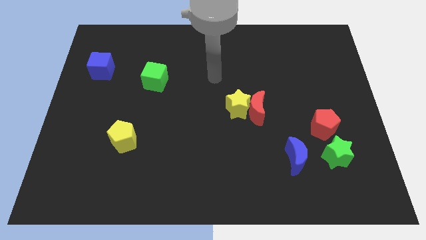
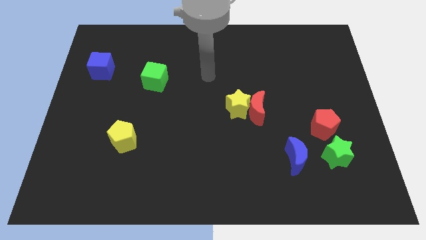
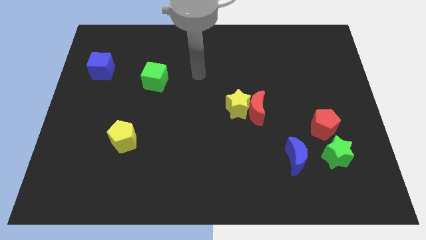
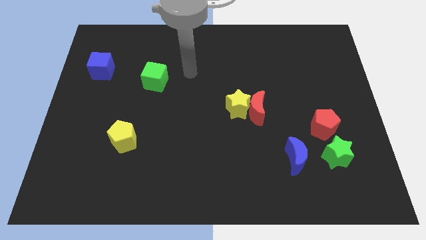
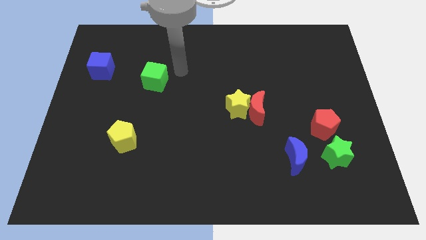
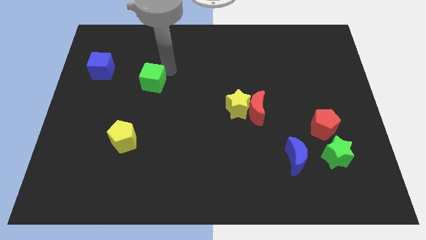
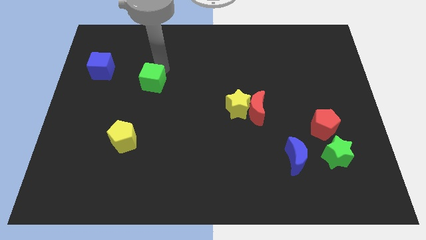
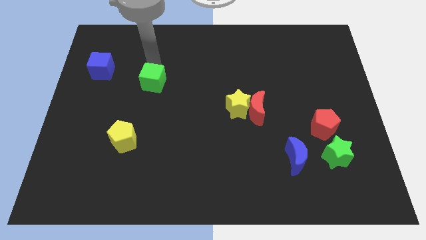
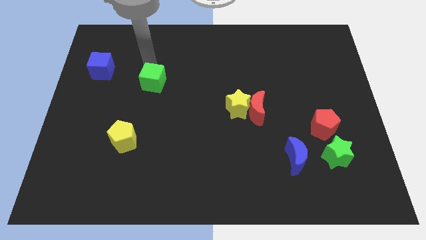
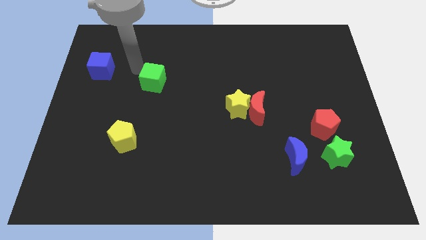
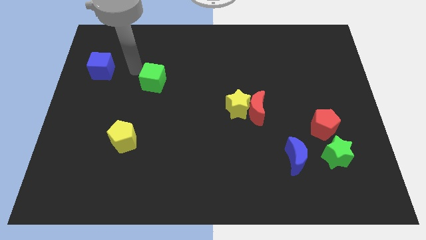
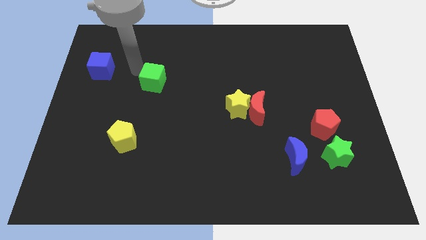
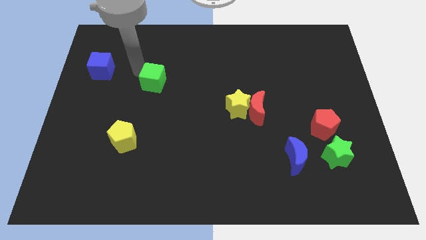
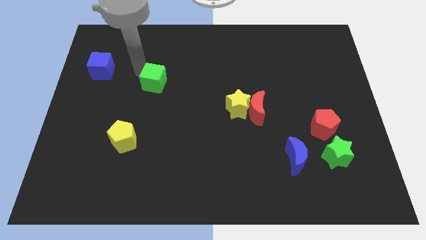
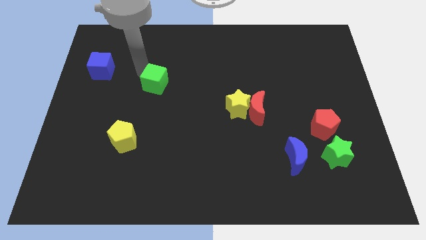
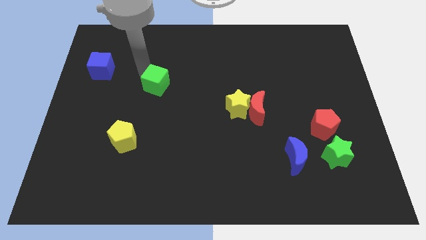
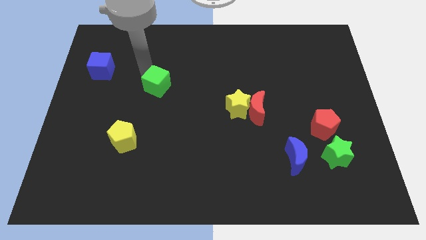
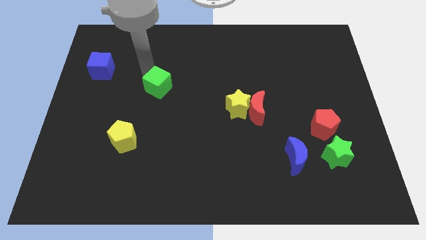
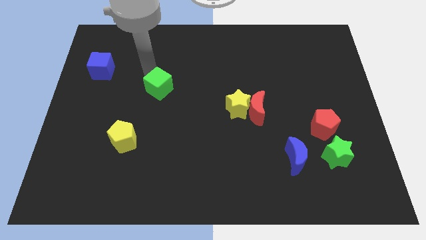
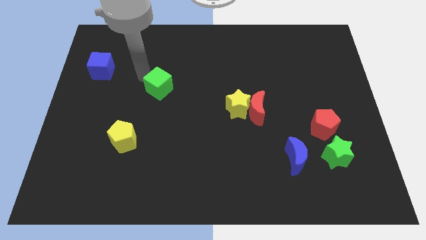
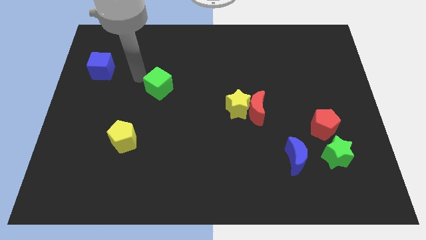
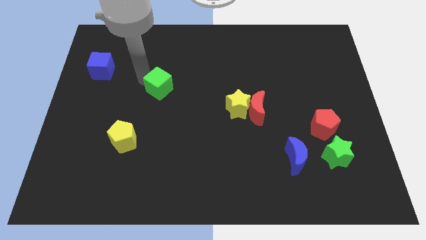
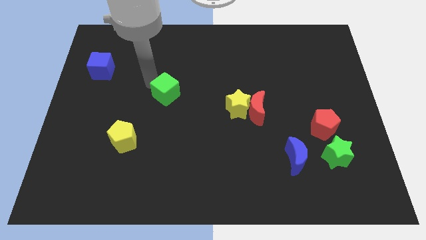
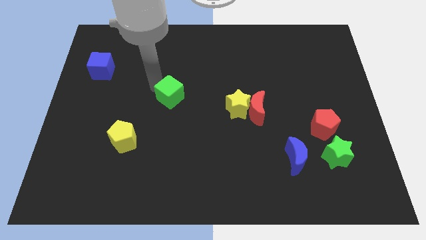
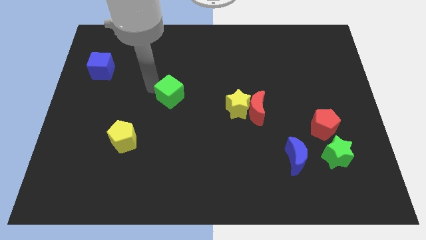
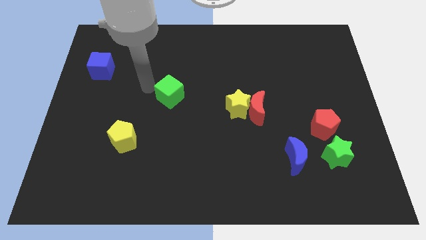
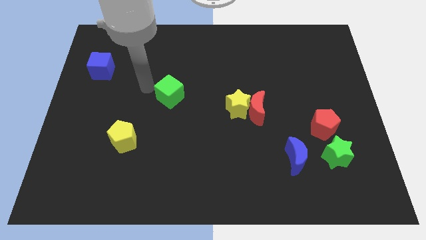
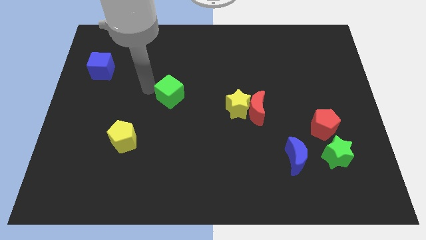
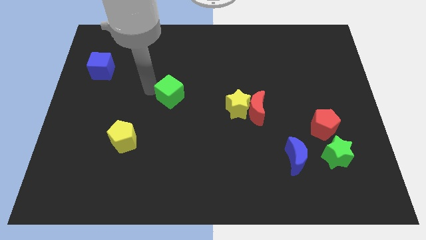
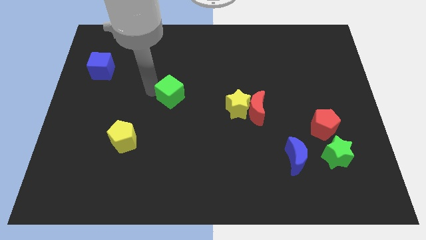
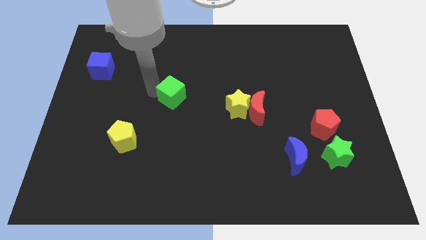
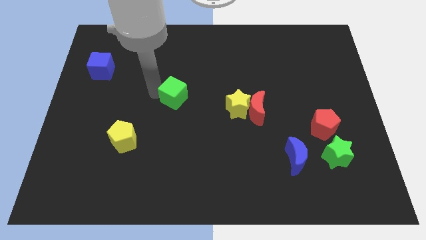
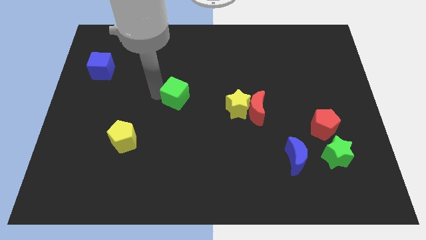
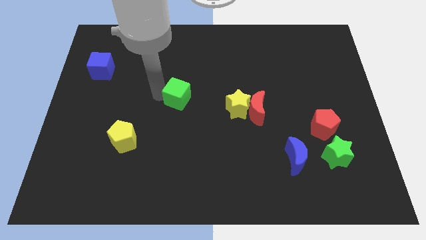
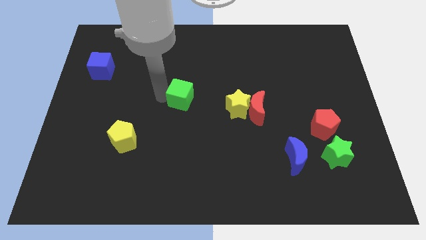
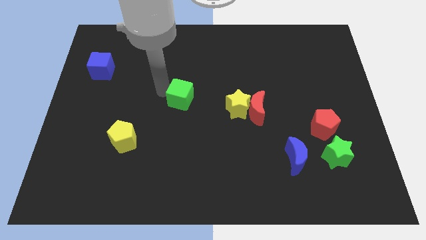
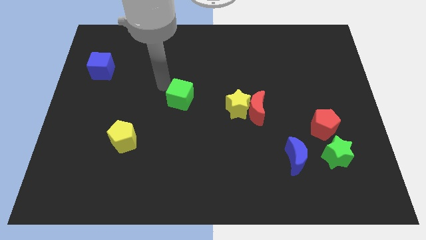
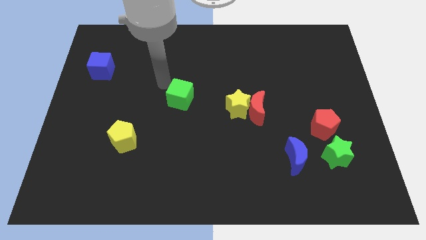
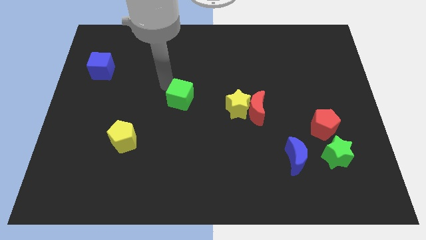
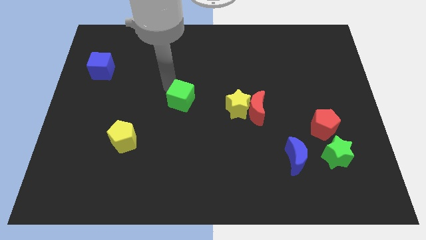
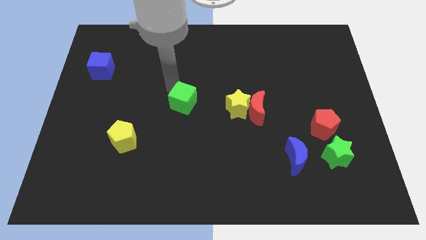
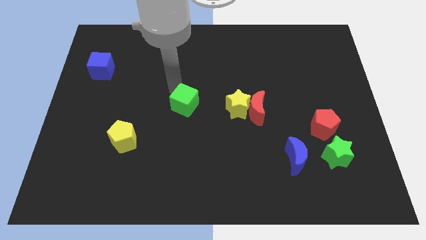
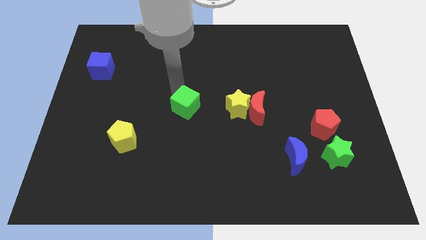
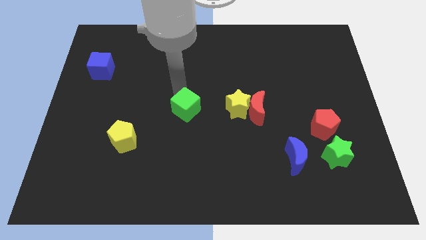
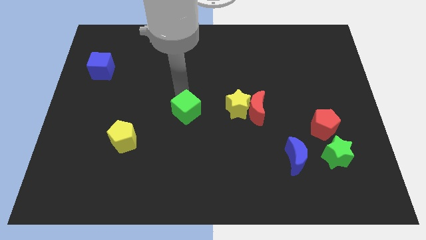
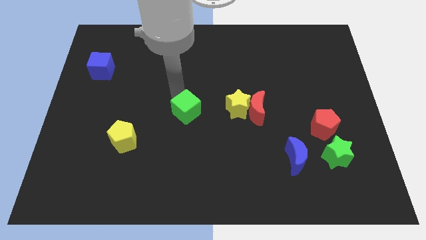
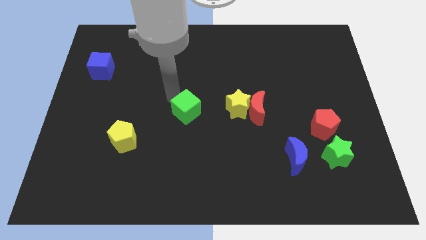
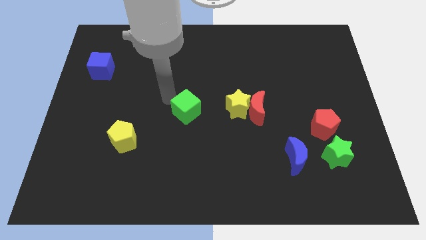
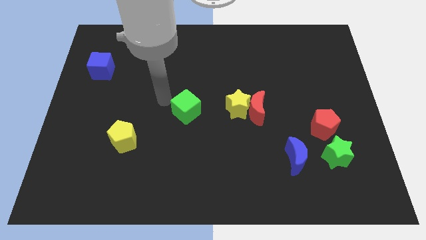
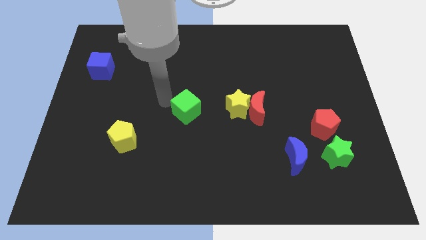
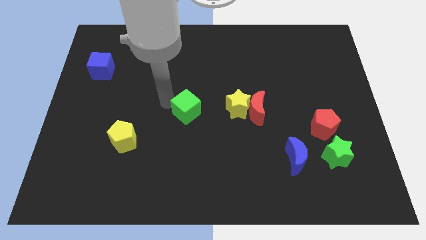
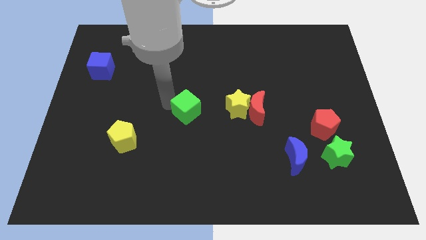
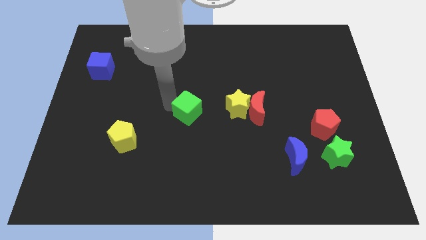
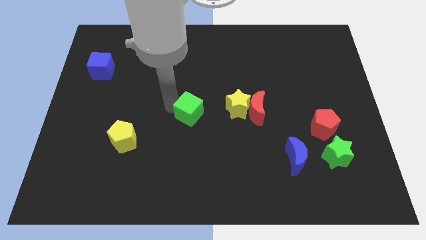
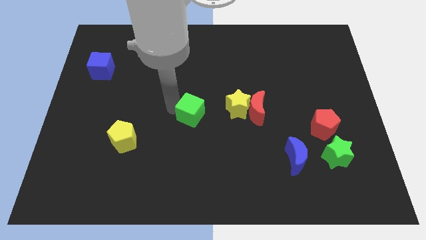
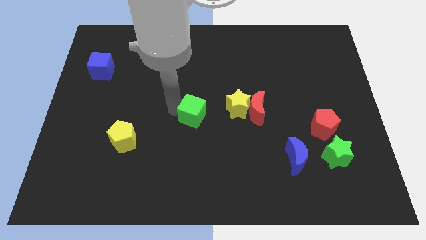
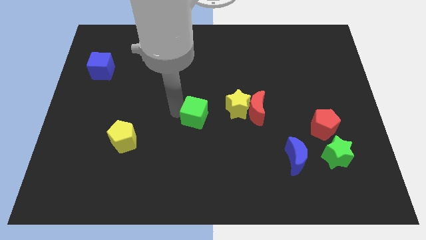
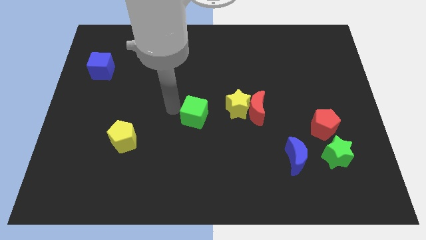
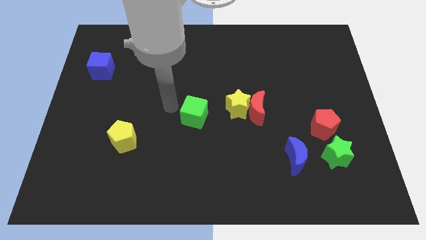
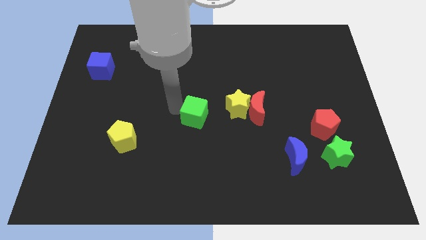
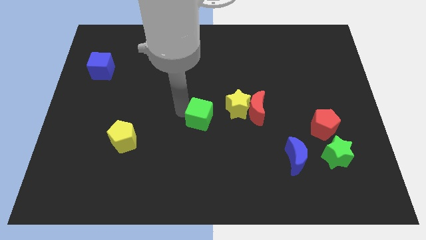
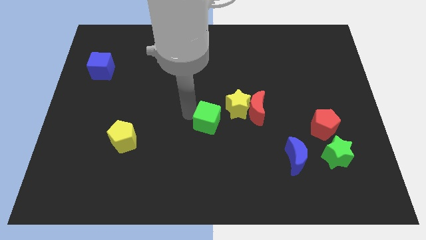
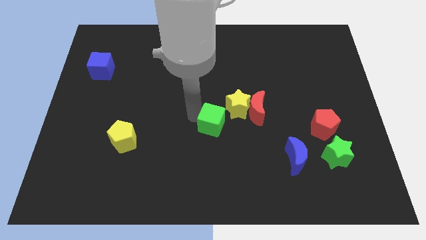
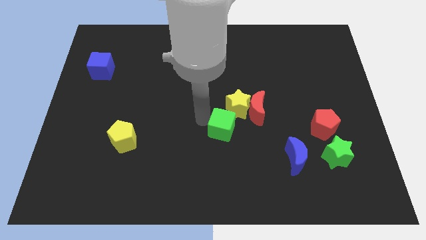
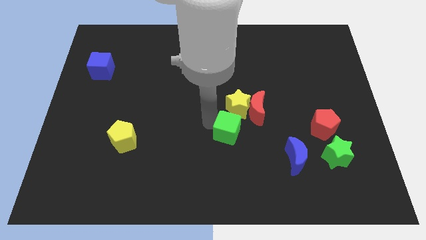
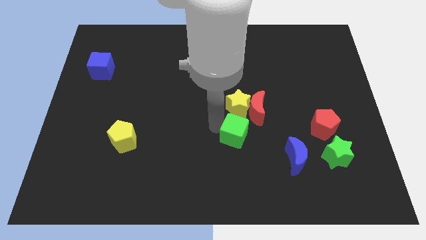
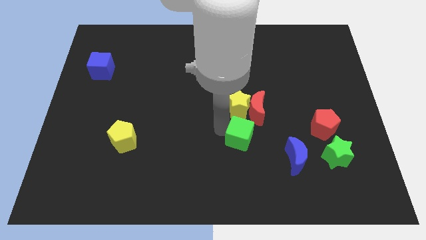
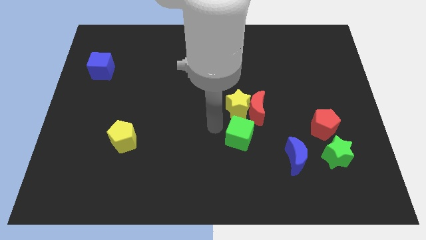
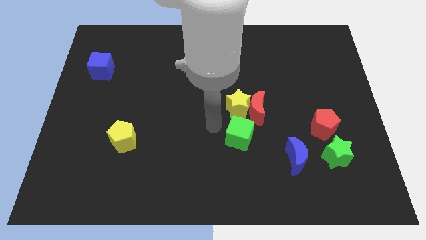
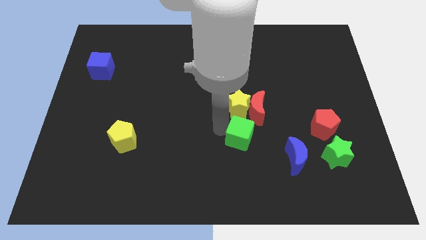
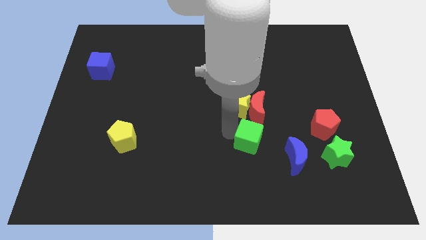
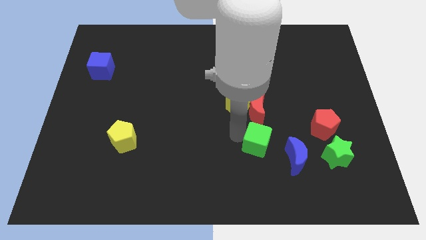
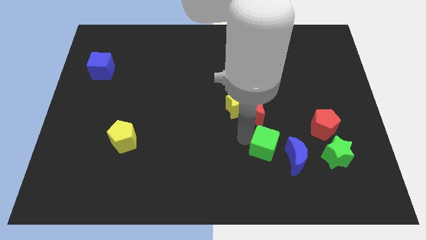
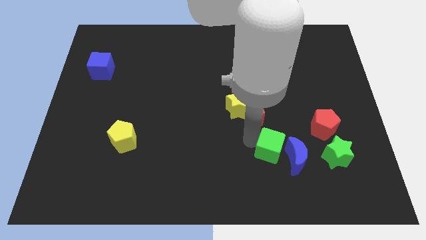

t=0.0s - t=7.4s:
move the green cube next to the blue moon

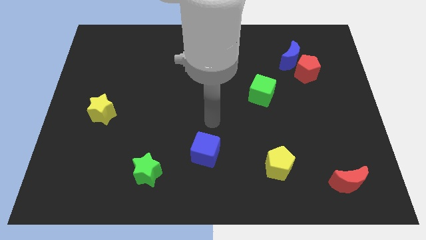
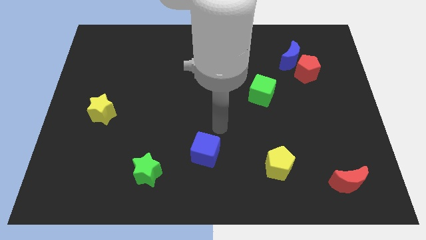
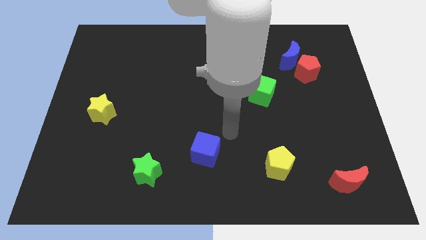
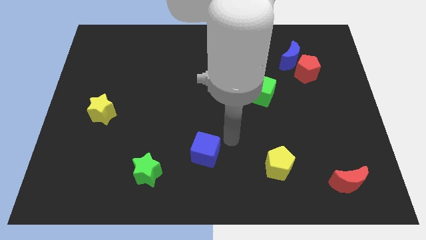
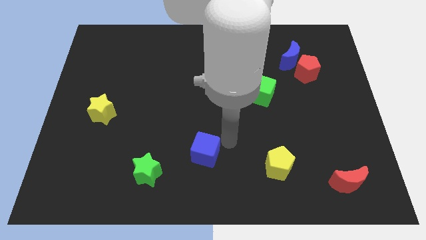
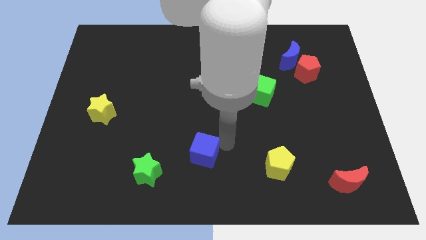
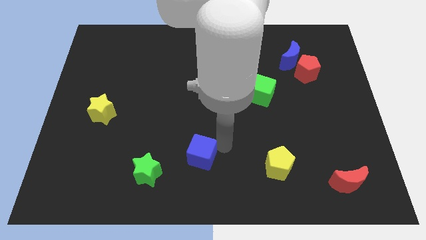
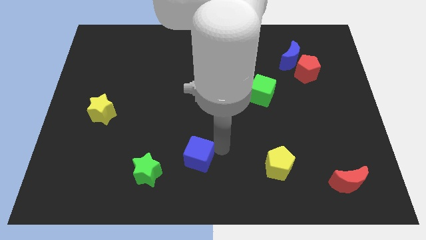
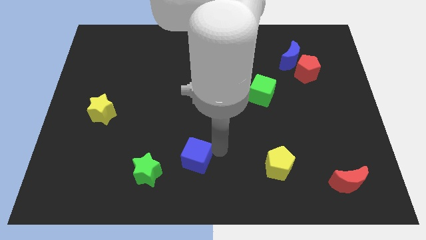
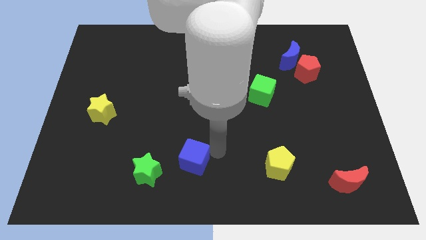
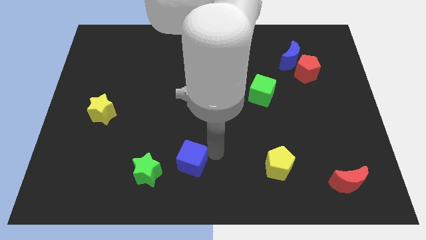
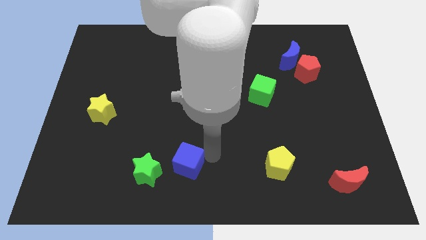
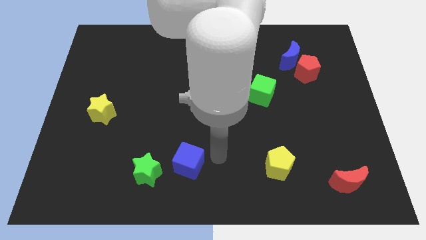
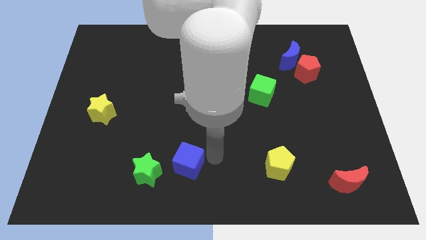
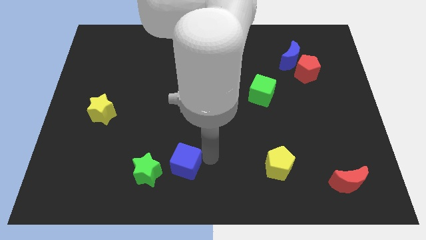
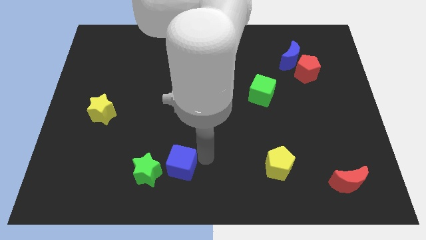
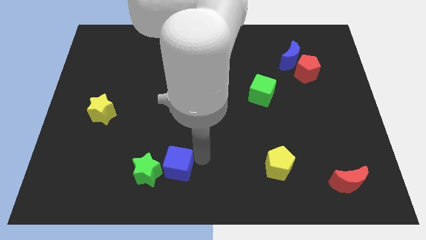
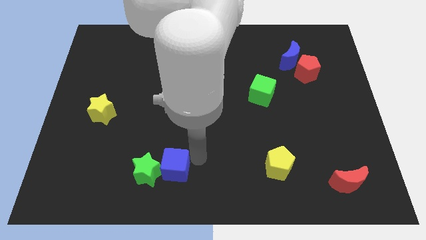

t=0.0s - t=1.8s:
push the blue cube next to the green star
